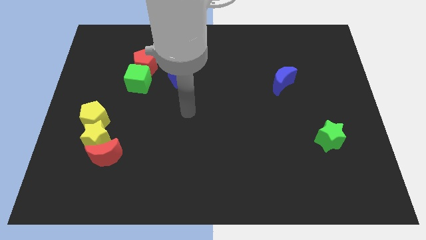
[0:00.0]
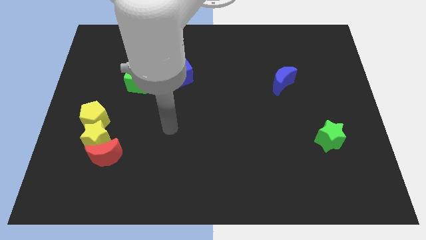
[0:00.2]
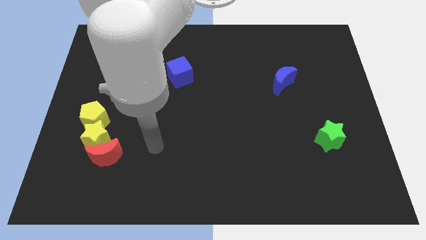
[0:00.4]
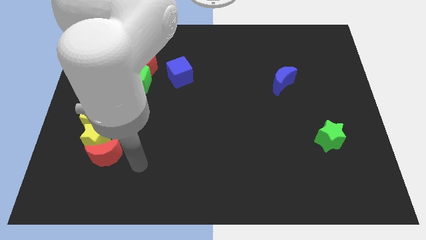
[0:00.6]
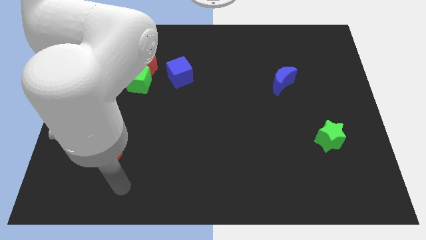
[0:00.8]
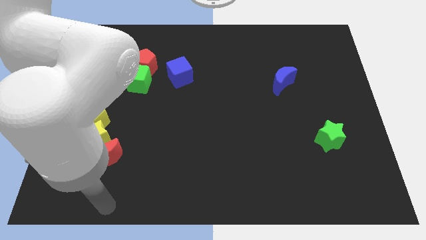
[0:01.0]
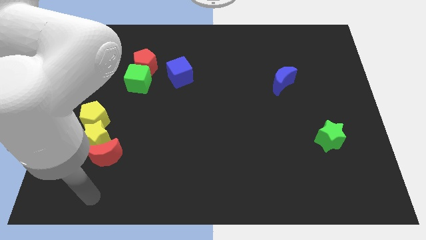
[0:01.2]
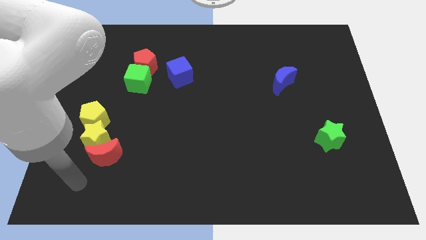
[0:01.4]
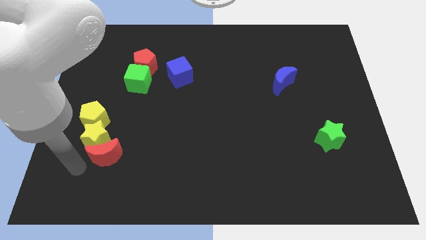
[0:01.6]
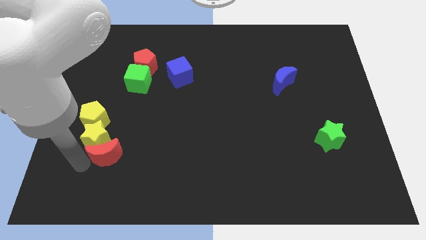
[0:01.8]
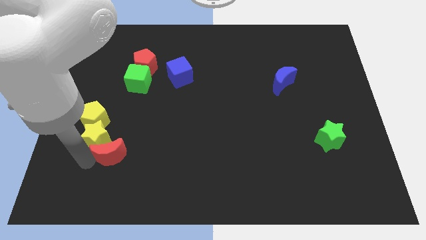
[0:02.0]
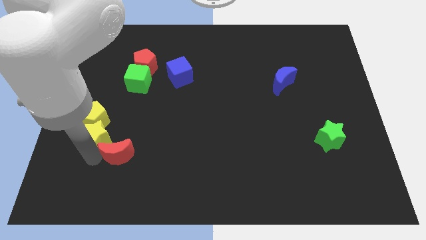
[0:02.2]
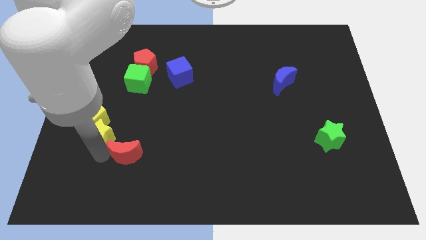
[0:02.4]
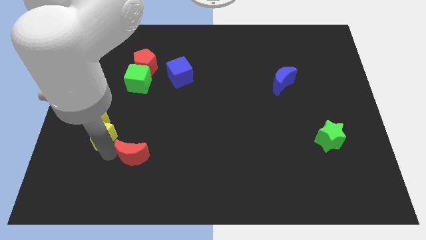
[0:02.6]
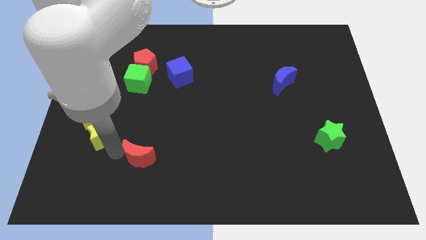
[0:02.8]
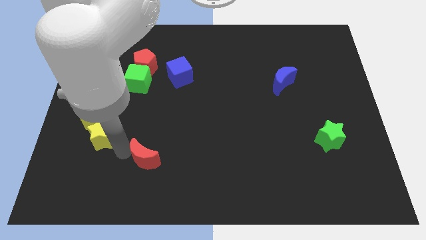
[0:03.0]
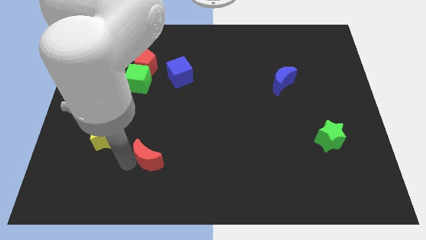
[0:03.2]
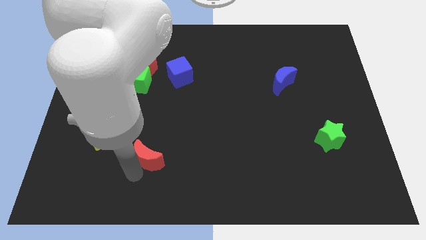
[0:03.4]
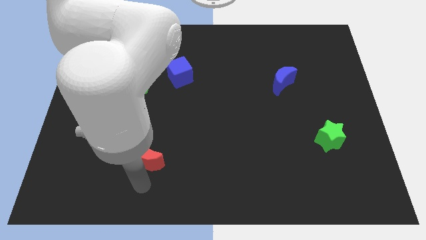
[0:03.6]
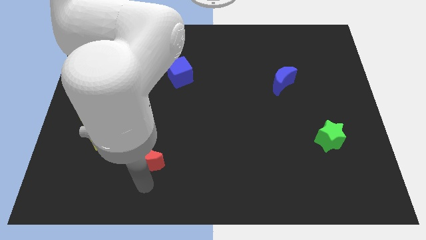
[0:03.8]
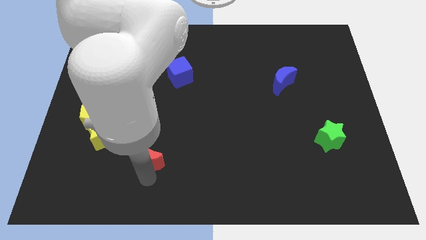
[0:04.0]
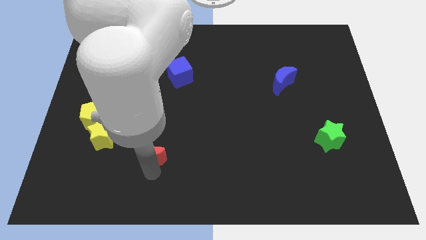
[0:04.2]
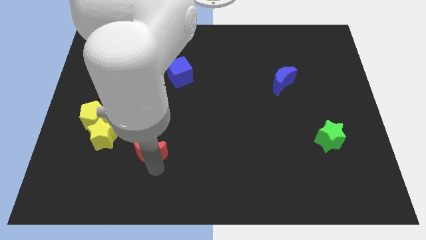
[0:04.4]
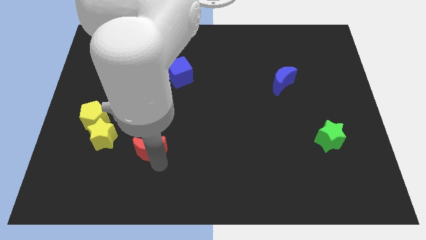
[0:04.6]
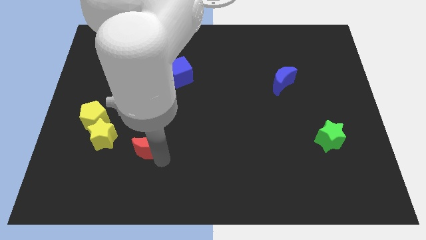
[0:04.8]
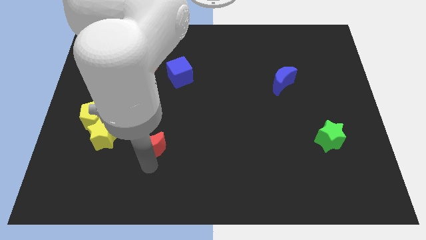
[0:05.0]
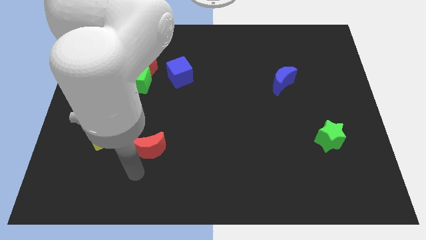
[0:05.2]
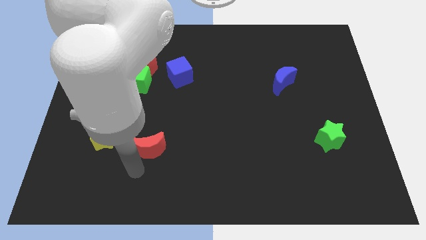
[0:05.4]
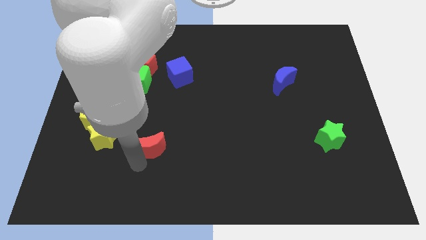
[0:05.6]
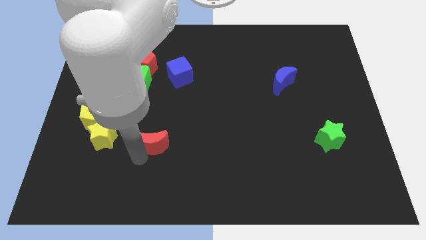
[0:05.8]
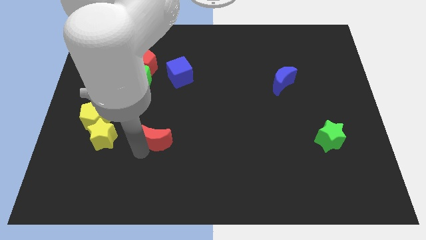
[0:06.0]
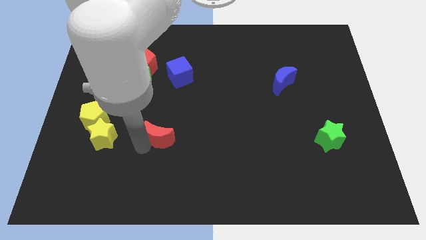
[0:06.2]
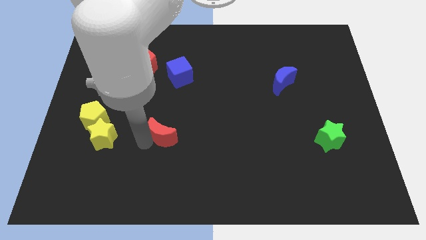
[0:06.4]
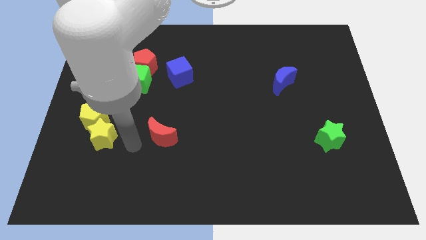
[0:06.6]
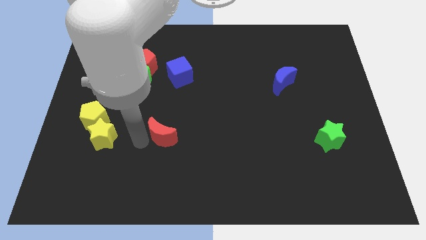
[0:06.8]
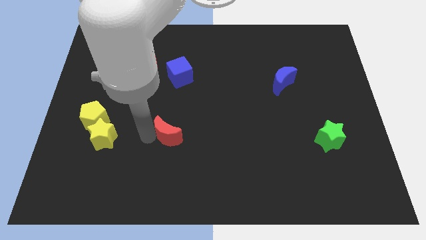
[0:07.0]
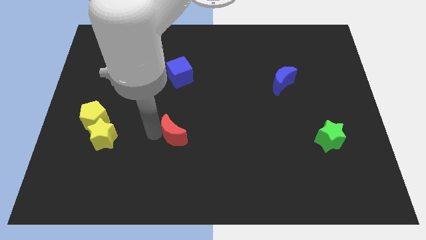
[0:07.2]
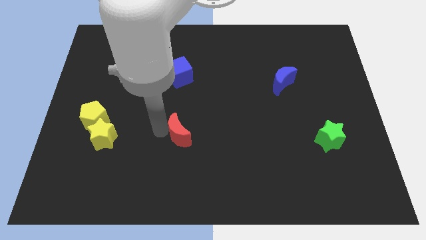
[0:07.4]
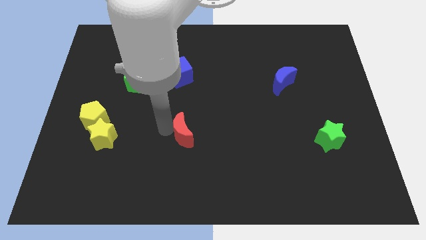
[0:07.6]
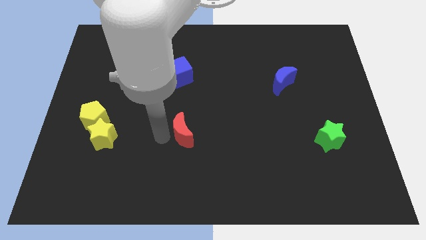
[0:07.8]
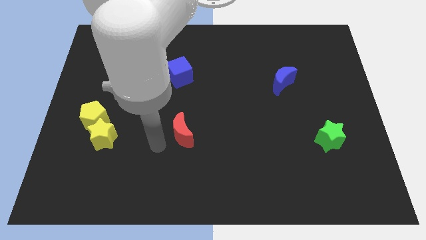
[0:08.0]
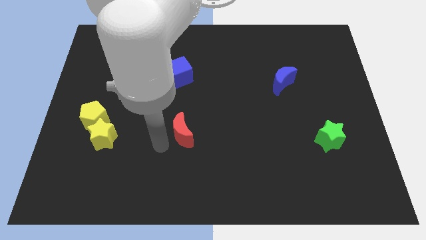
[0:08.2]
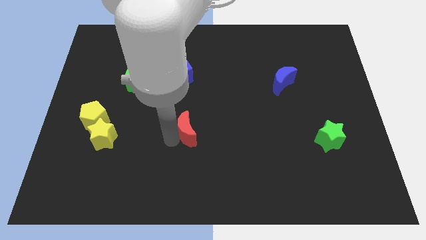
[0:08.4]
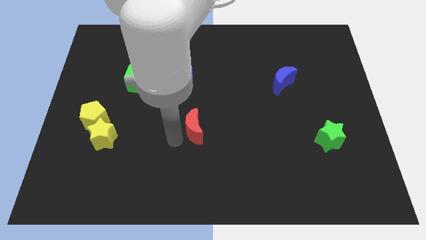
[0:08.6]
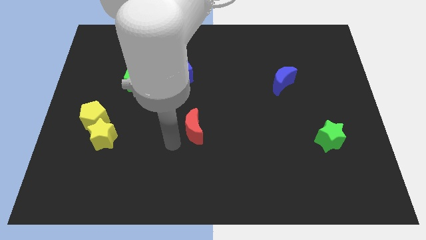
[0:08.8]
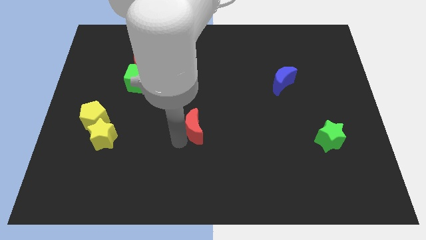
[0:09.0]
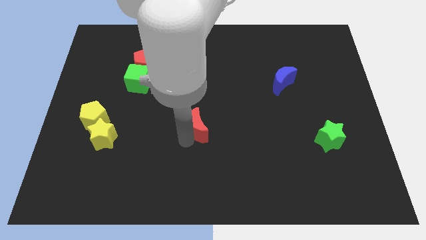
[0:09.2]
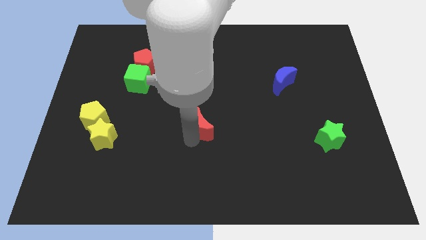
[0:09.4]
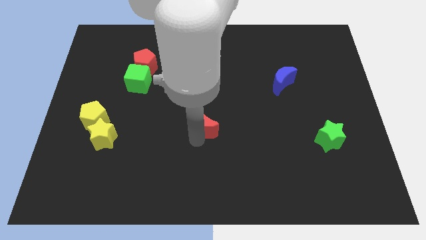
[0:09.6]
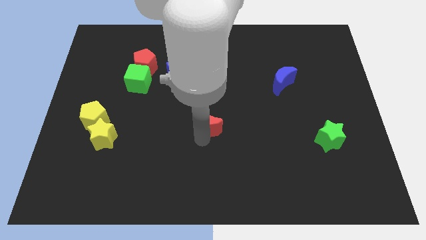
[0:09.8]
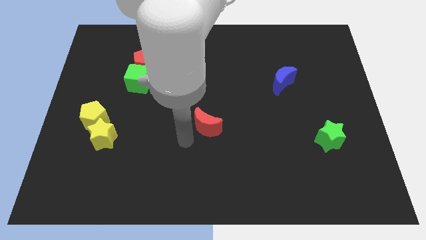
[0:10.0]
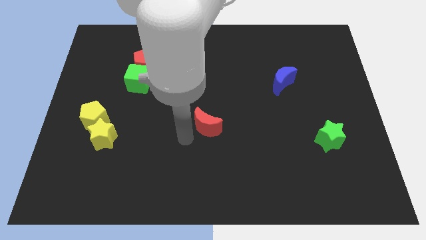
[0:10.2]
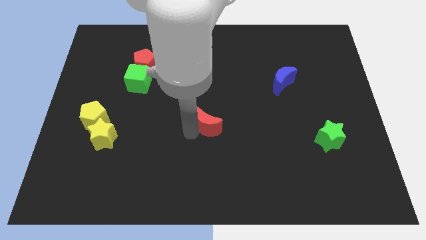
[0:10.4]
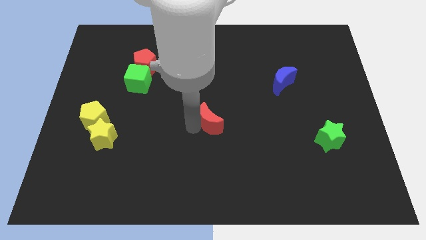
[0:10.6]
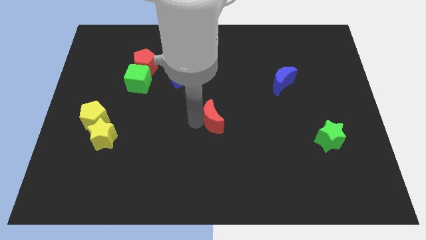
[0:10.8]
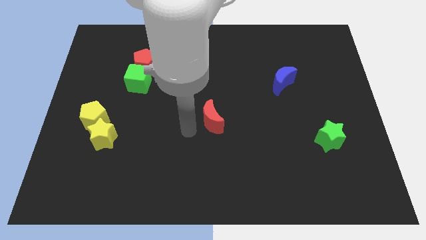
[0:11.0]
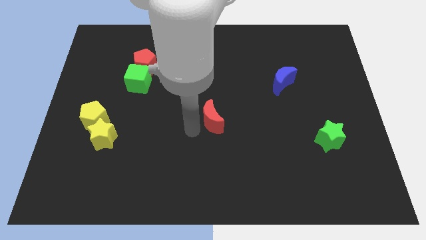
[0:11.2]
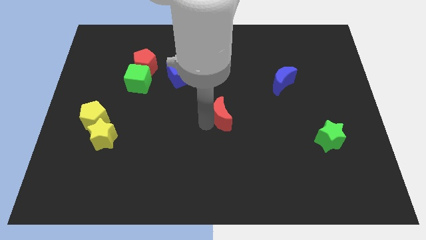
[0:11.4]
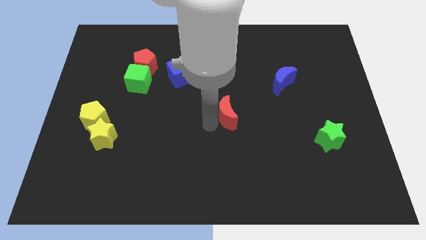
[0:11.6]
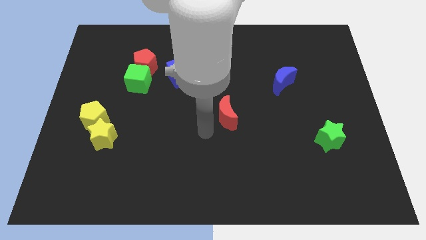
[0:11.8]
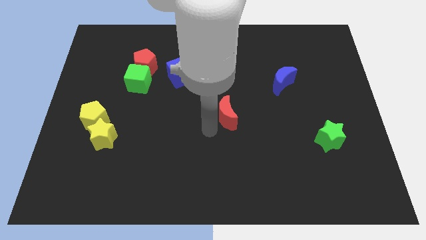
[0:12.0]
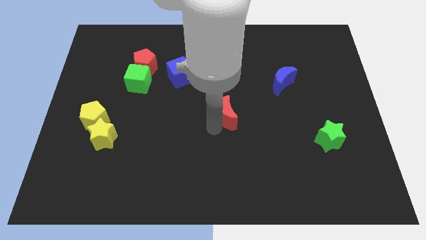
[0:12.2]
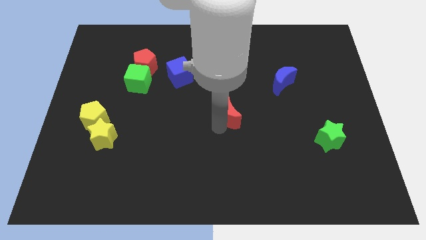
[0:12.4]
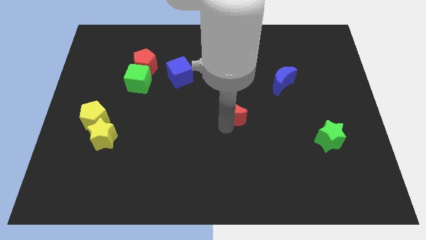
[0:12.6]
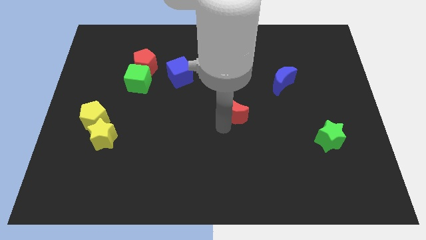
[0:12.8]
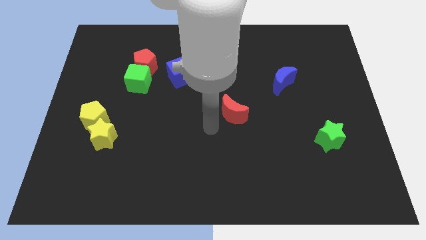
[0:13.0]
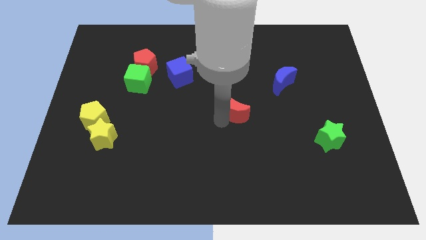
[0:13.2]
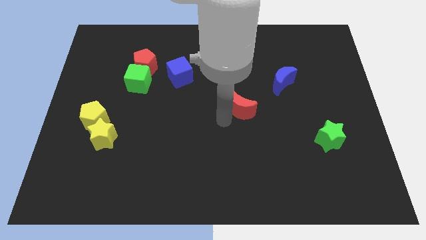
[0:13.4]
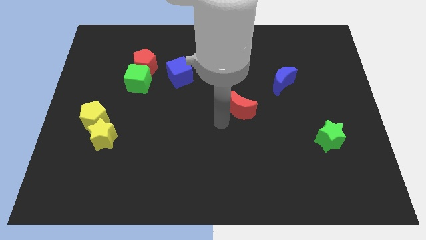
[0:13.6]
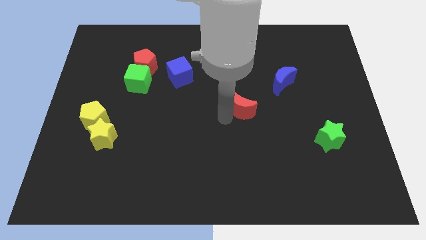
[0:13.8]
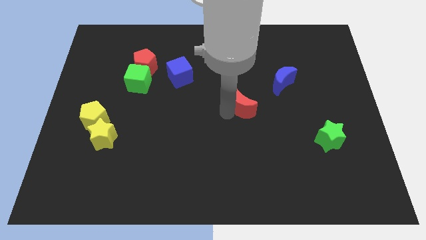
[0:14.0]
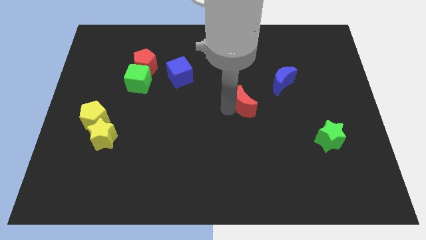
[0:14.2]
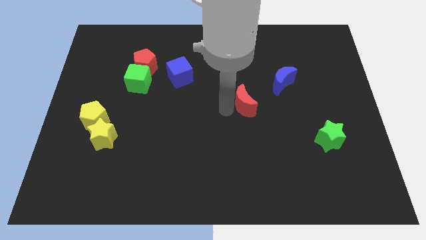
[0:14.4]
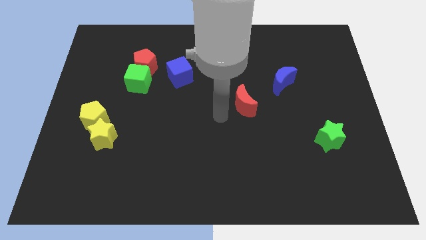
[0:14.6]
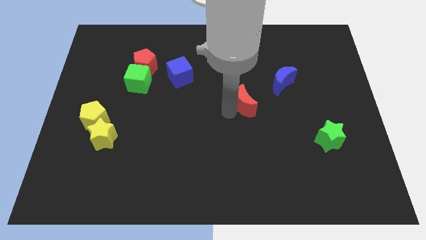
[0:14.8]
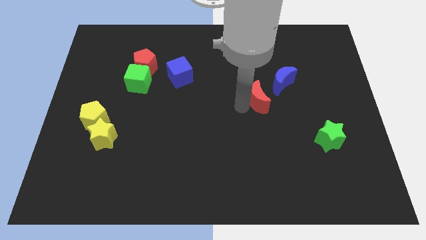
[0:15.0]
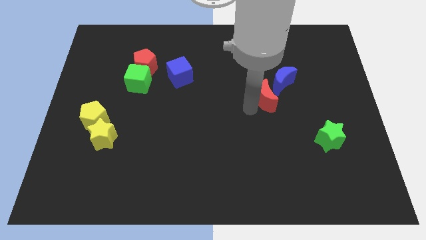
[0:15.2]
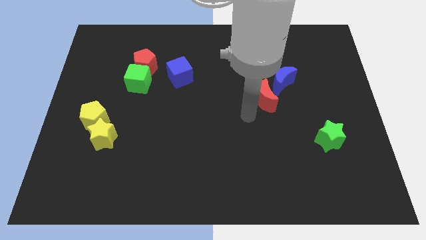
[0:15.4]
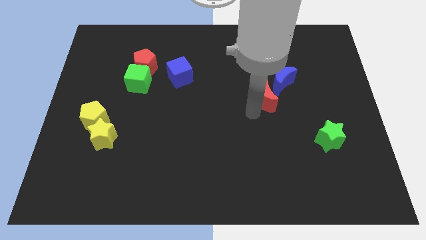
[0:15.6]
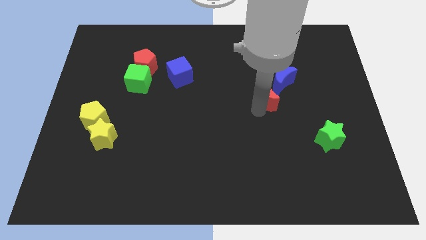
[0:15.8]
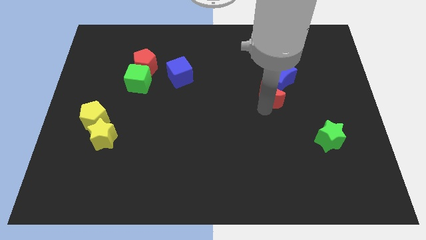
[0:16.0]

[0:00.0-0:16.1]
push the red moon to the blue moon
